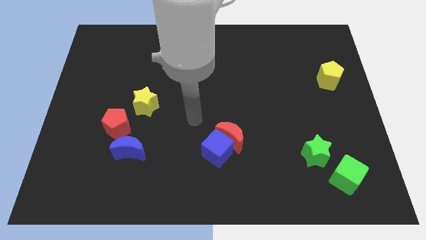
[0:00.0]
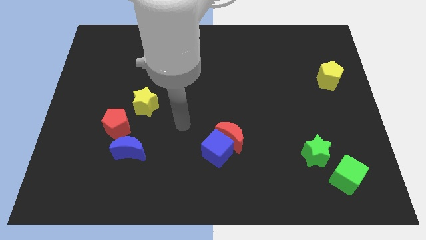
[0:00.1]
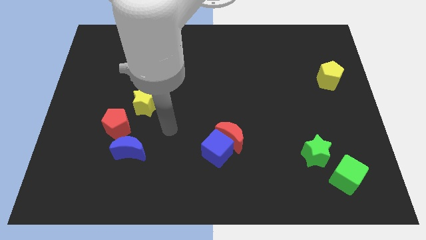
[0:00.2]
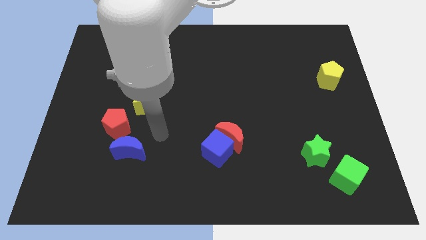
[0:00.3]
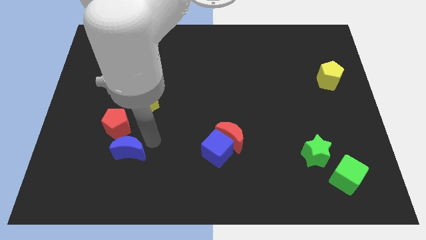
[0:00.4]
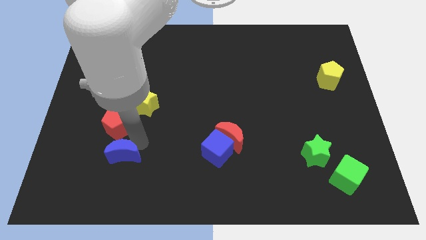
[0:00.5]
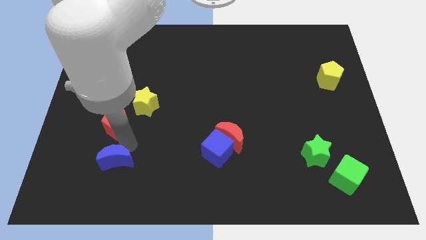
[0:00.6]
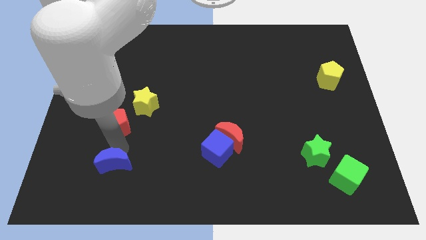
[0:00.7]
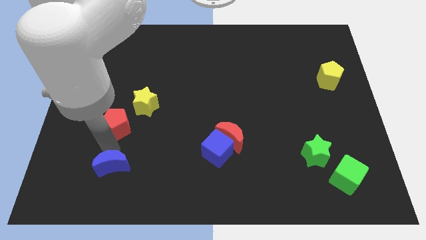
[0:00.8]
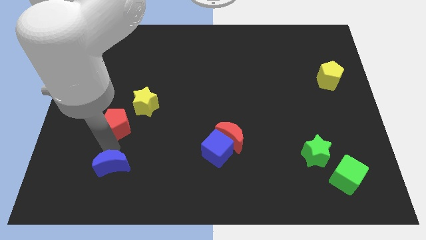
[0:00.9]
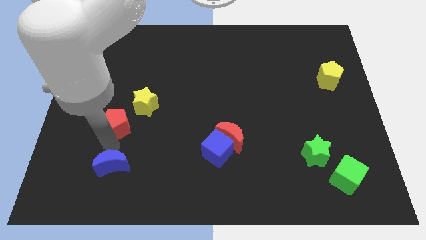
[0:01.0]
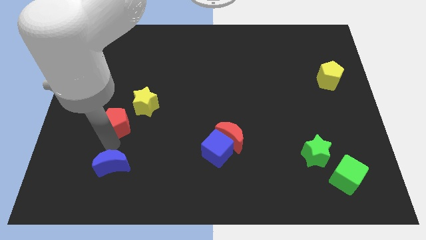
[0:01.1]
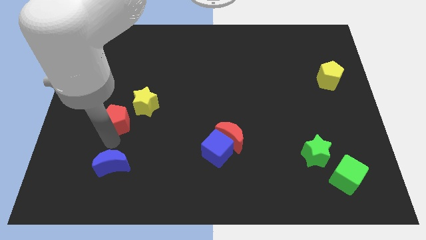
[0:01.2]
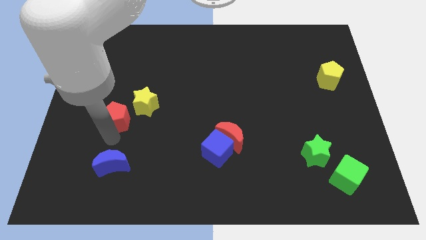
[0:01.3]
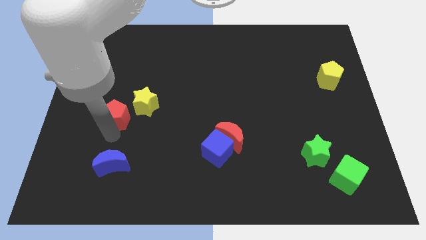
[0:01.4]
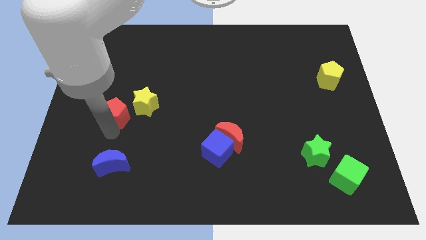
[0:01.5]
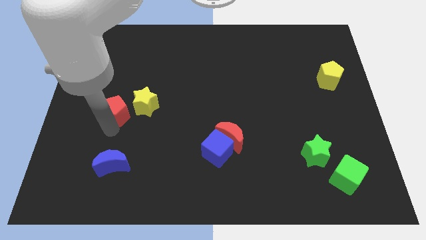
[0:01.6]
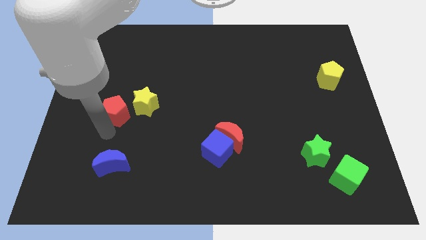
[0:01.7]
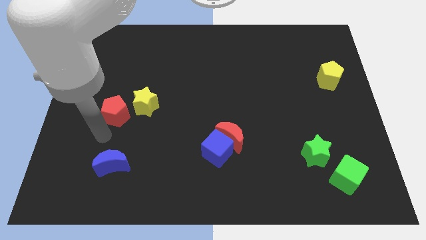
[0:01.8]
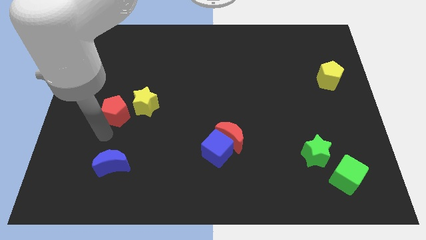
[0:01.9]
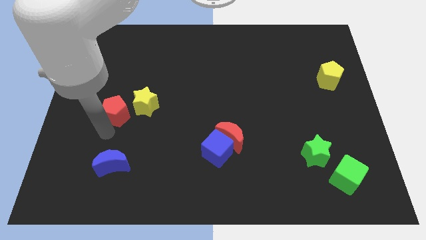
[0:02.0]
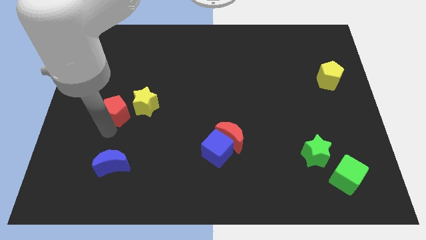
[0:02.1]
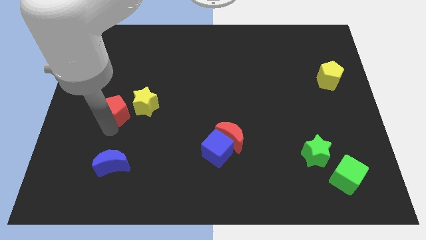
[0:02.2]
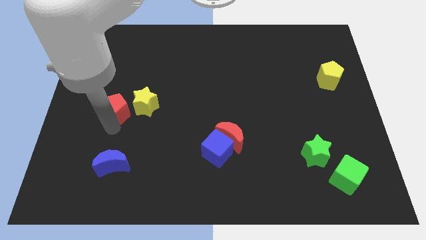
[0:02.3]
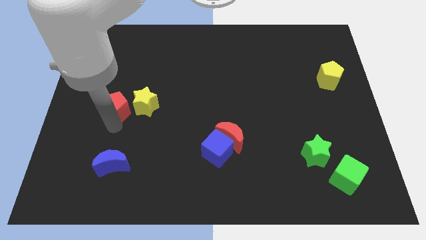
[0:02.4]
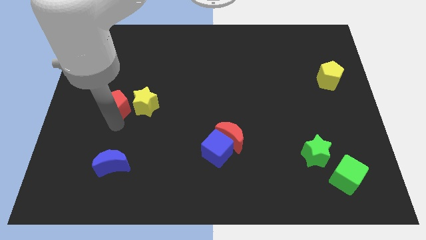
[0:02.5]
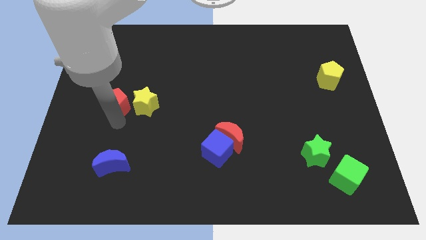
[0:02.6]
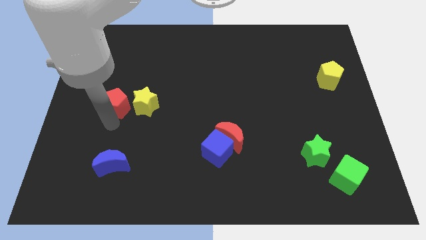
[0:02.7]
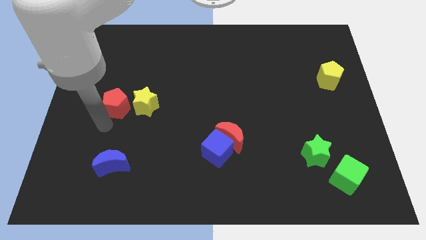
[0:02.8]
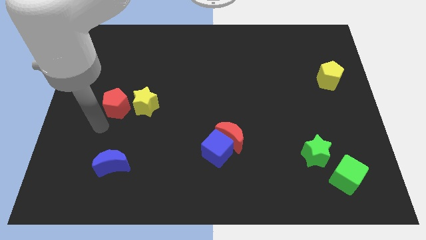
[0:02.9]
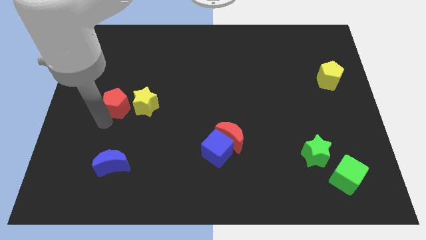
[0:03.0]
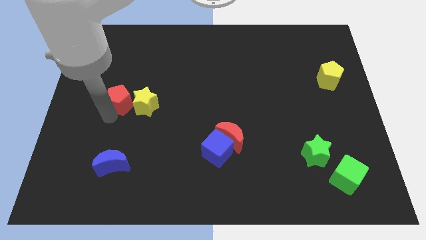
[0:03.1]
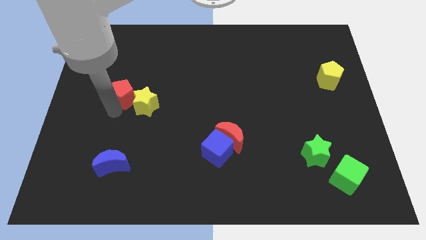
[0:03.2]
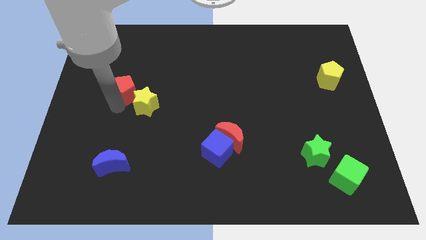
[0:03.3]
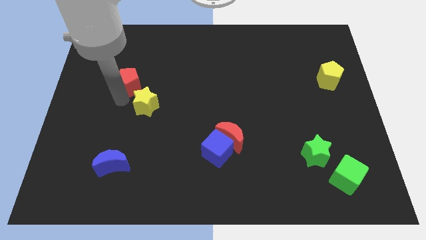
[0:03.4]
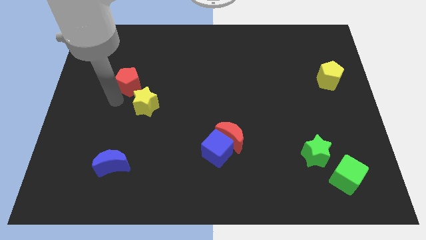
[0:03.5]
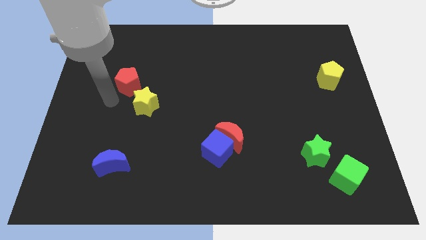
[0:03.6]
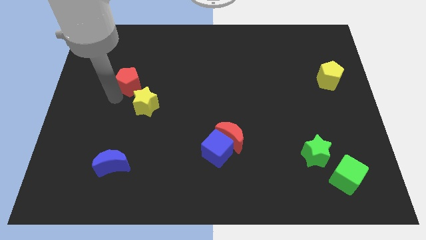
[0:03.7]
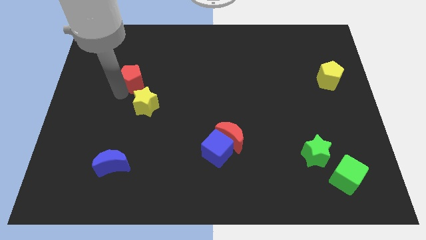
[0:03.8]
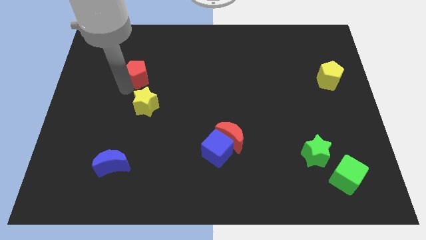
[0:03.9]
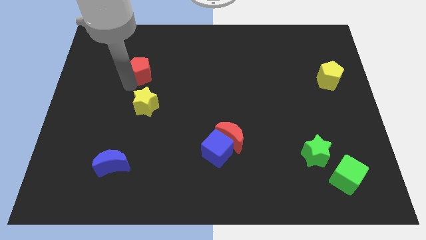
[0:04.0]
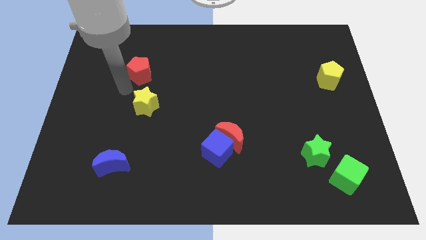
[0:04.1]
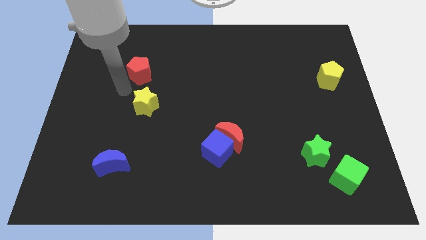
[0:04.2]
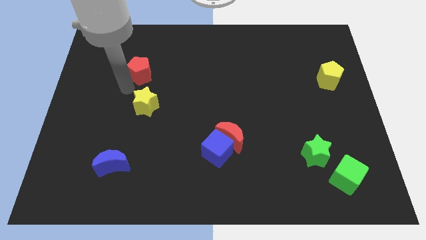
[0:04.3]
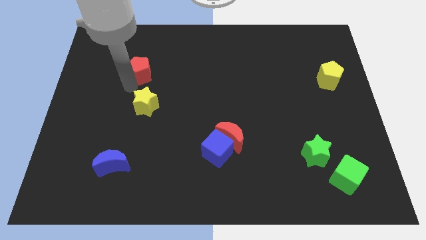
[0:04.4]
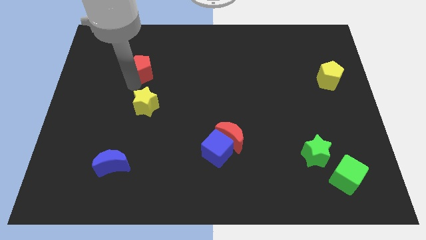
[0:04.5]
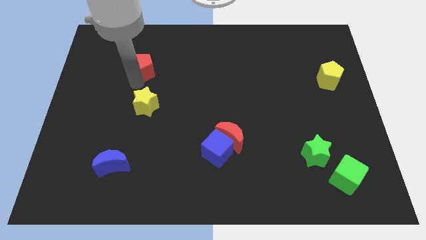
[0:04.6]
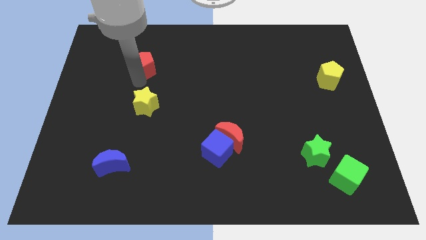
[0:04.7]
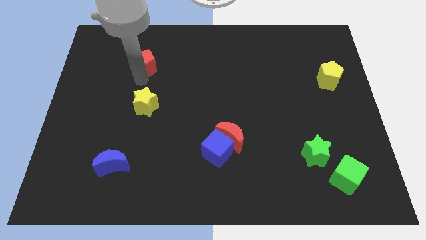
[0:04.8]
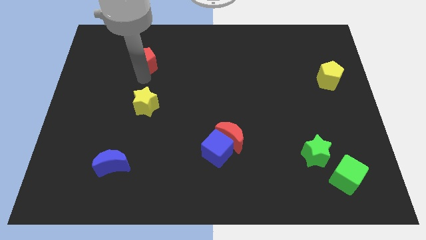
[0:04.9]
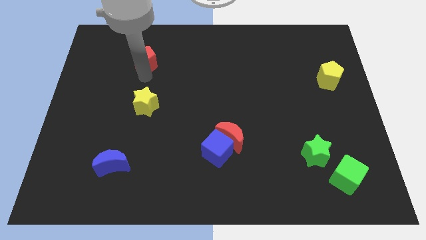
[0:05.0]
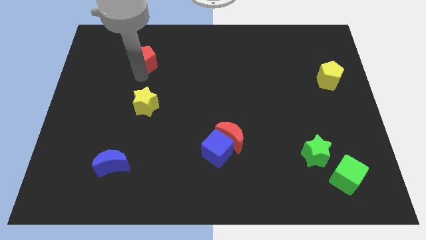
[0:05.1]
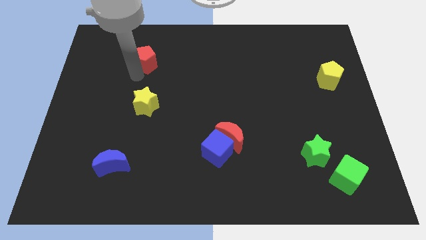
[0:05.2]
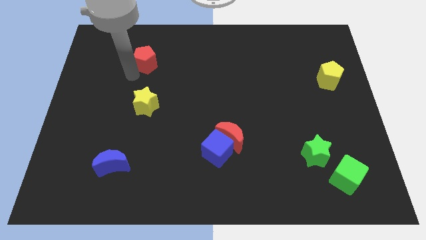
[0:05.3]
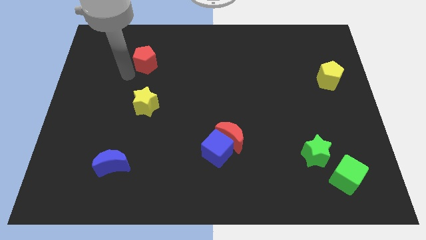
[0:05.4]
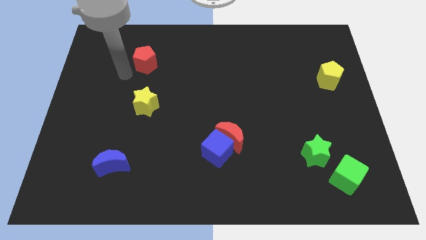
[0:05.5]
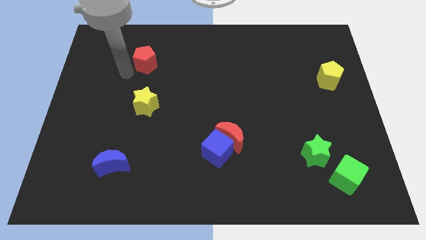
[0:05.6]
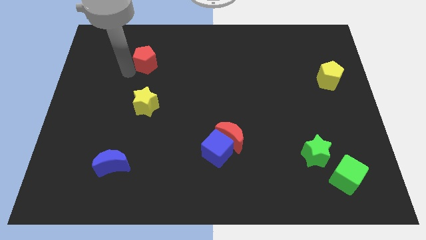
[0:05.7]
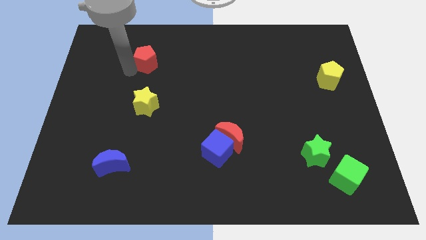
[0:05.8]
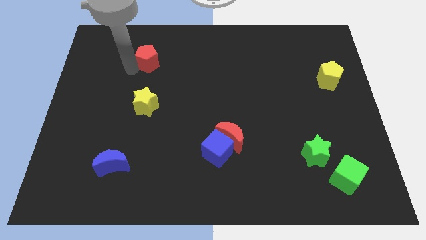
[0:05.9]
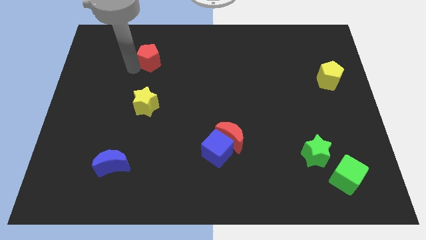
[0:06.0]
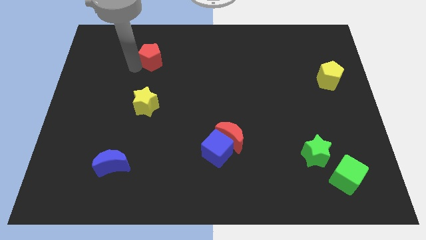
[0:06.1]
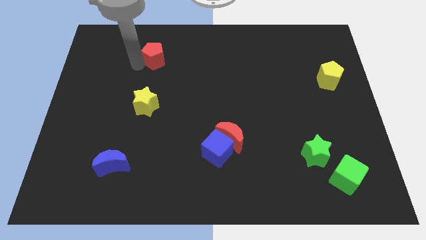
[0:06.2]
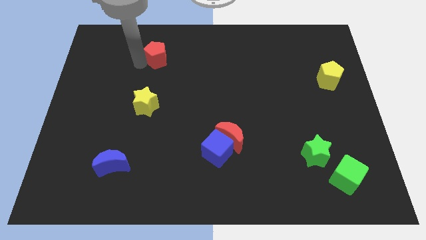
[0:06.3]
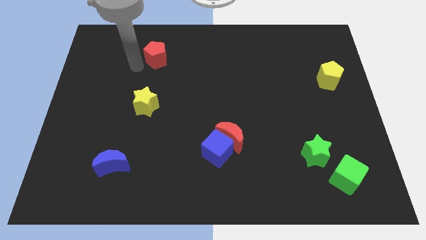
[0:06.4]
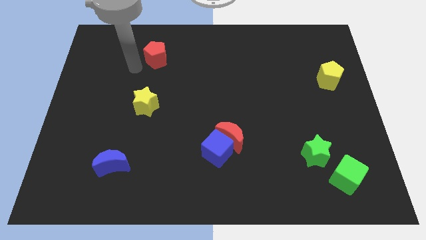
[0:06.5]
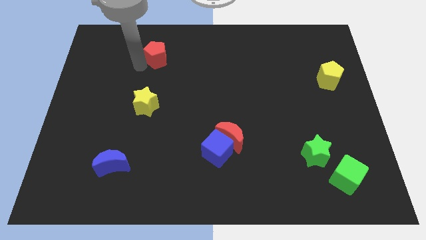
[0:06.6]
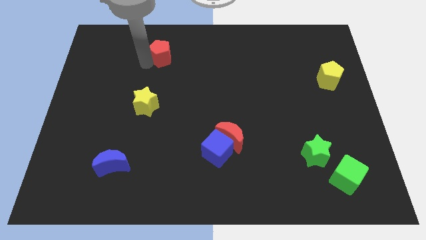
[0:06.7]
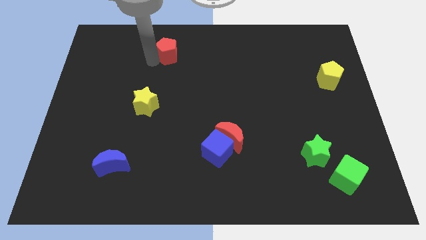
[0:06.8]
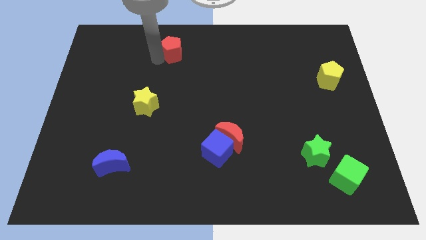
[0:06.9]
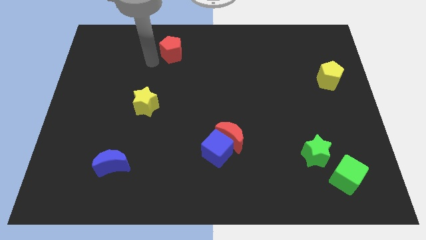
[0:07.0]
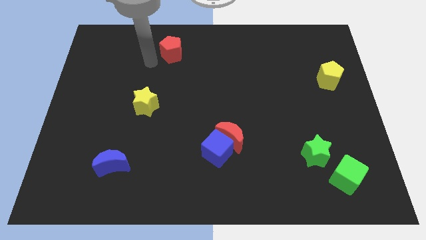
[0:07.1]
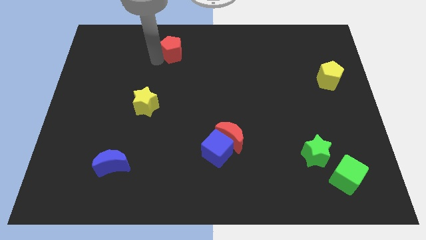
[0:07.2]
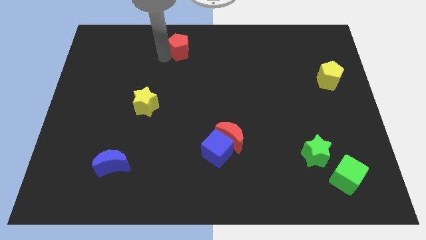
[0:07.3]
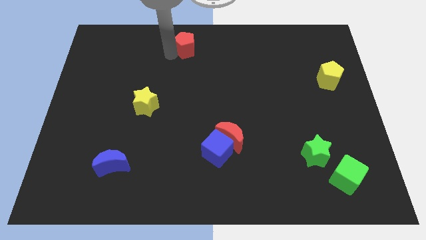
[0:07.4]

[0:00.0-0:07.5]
put the red pentagon to the towards your base
